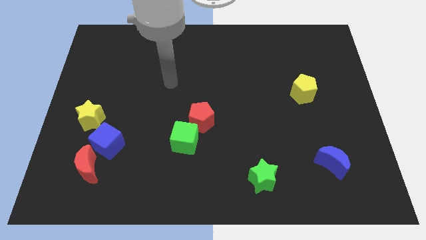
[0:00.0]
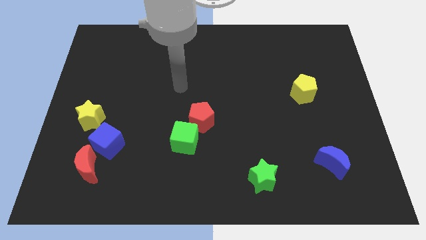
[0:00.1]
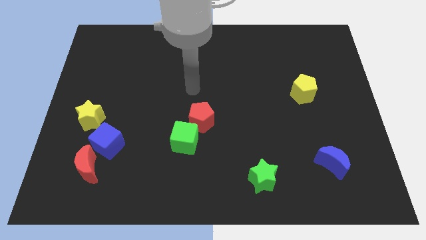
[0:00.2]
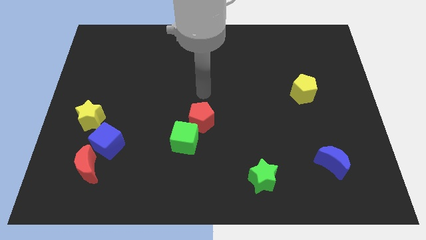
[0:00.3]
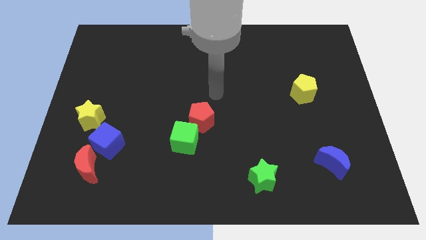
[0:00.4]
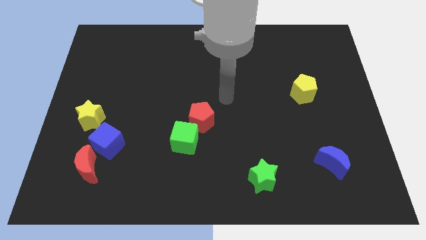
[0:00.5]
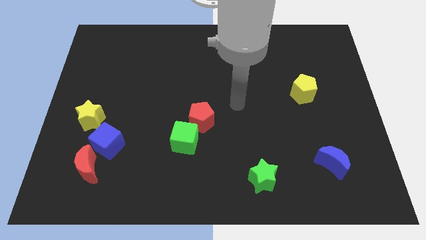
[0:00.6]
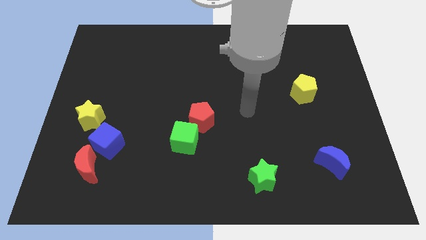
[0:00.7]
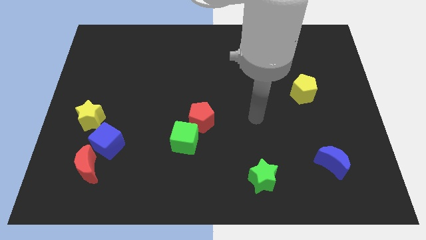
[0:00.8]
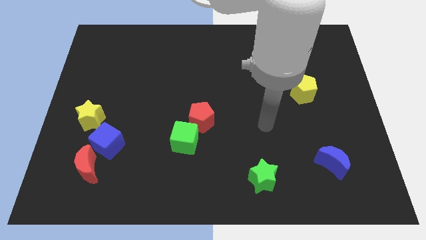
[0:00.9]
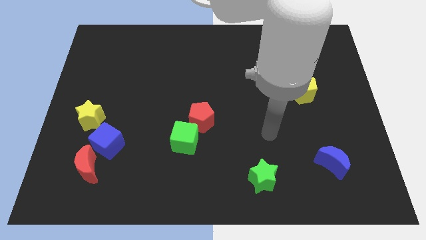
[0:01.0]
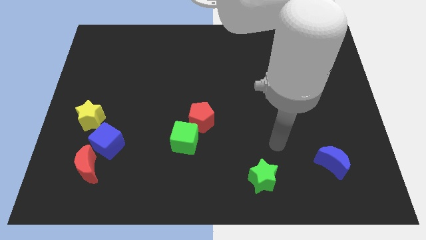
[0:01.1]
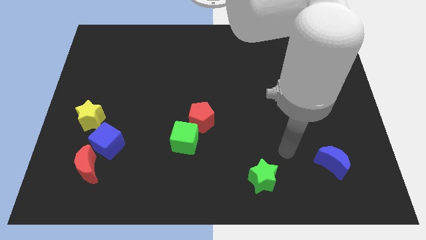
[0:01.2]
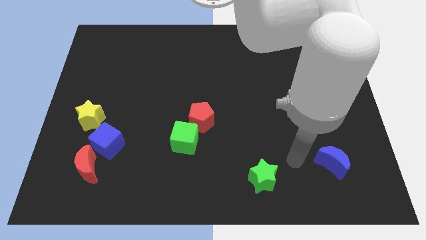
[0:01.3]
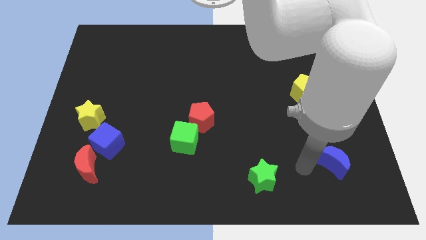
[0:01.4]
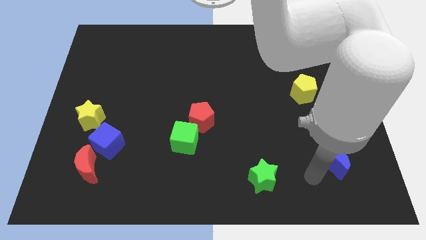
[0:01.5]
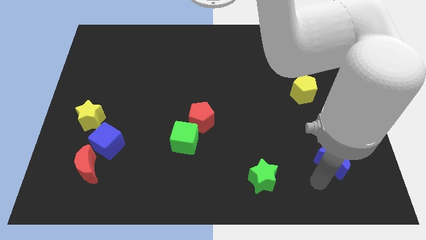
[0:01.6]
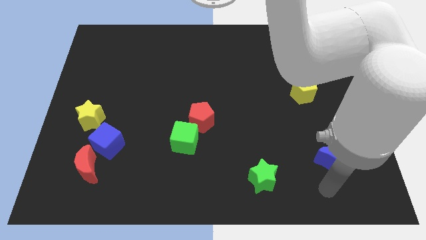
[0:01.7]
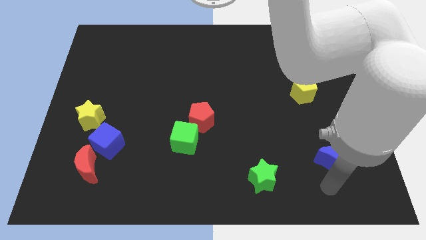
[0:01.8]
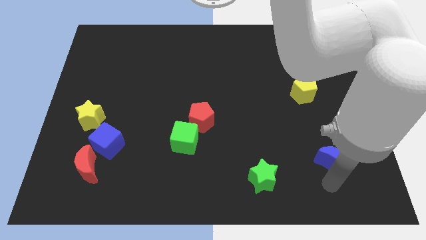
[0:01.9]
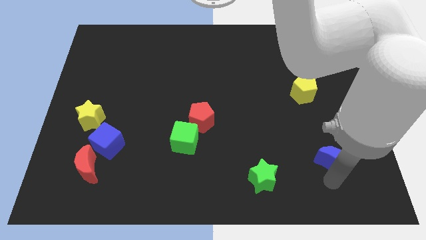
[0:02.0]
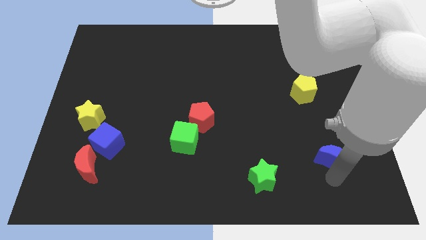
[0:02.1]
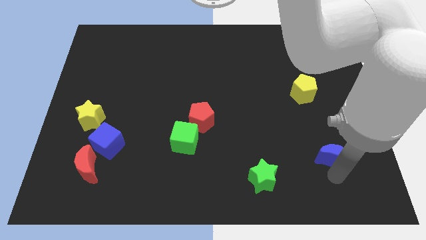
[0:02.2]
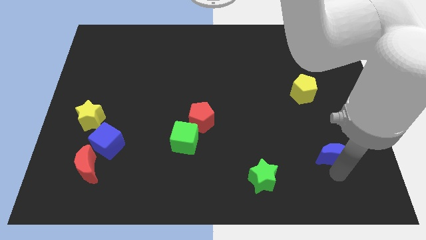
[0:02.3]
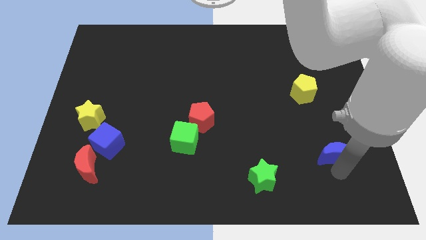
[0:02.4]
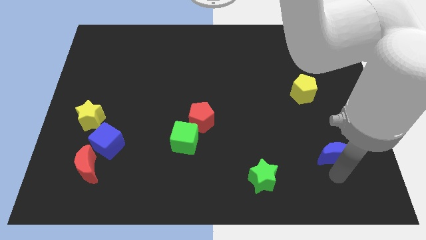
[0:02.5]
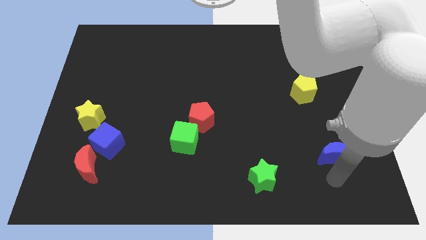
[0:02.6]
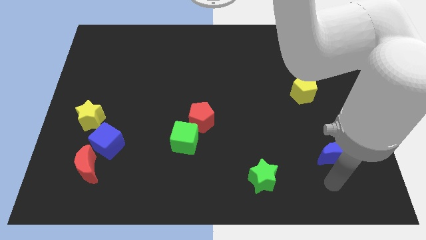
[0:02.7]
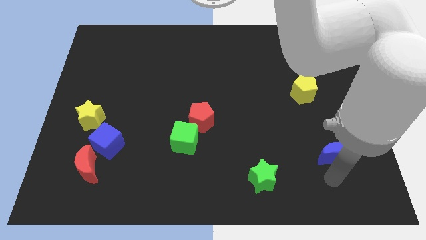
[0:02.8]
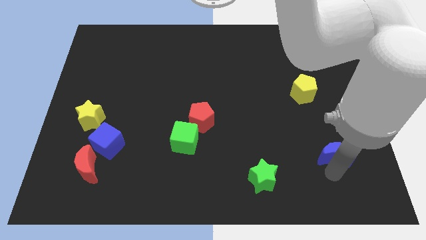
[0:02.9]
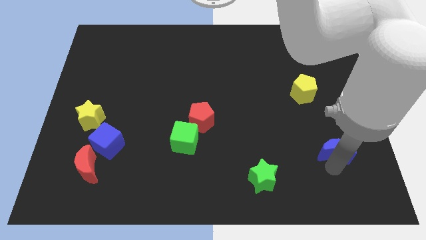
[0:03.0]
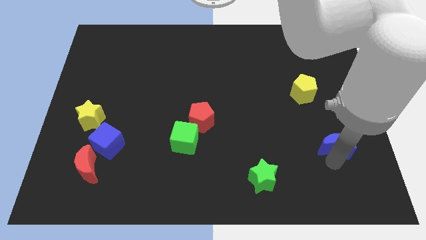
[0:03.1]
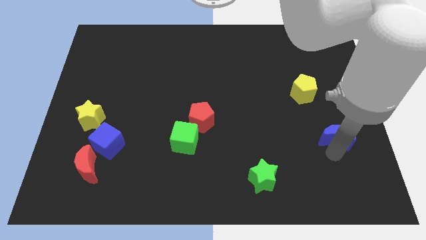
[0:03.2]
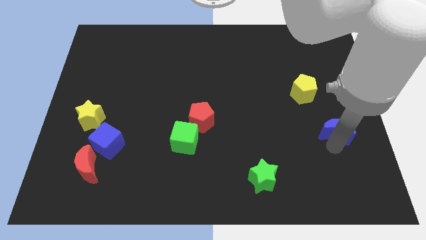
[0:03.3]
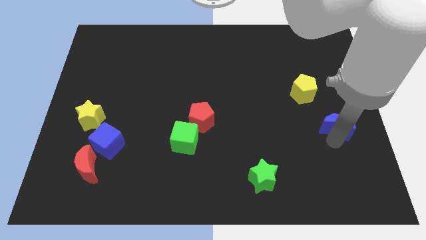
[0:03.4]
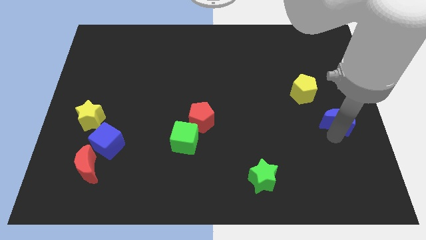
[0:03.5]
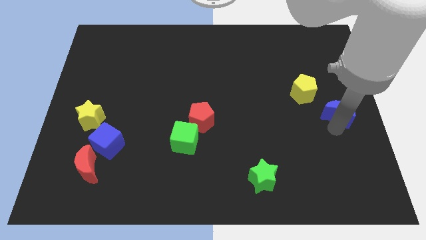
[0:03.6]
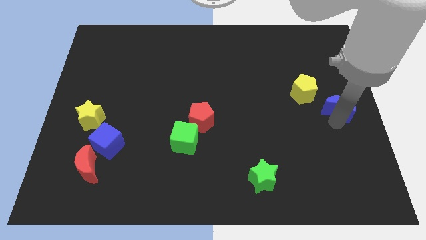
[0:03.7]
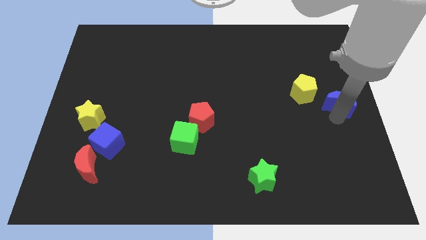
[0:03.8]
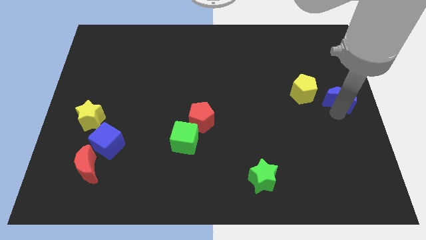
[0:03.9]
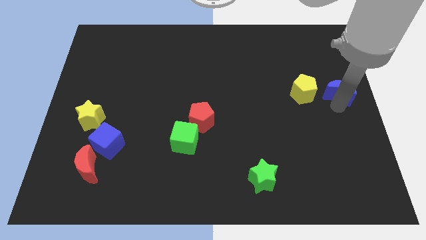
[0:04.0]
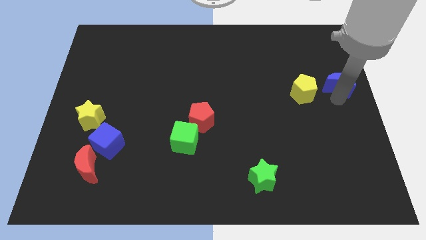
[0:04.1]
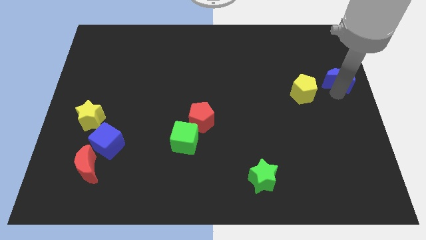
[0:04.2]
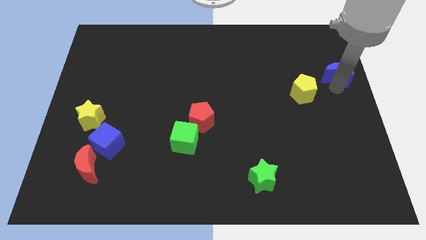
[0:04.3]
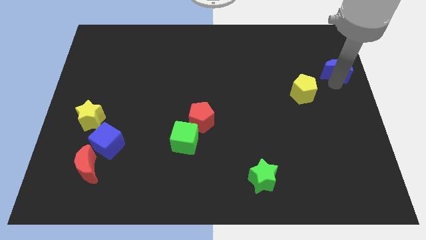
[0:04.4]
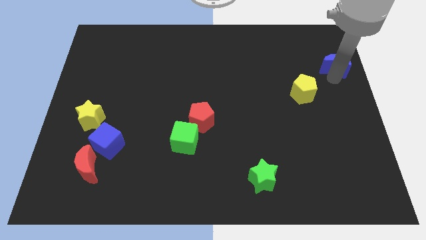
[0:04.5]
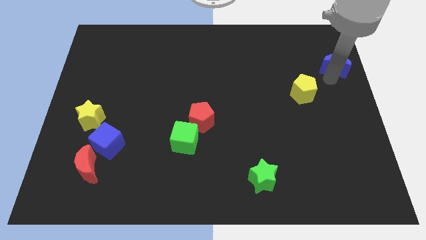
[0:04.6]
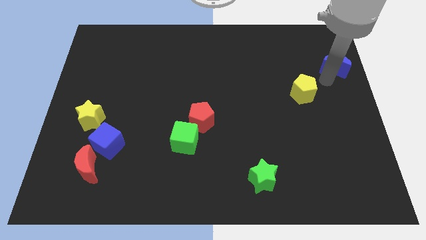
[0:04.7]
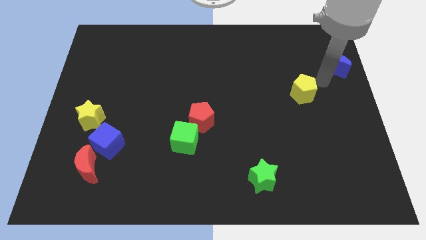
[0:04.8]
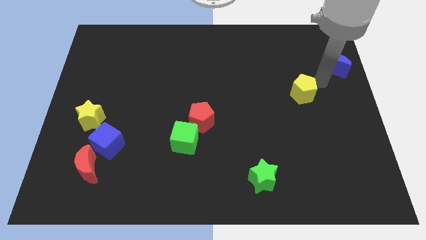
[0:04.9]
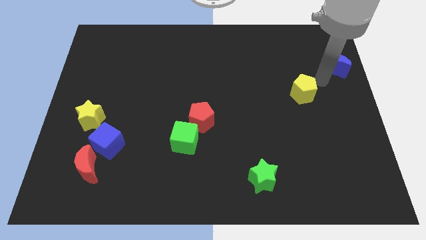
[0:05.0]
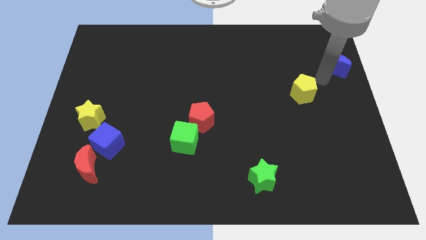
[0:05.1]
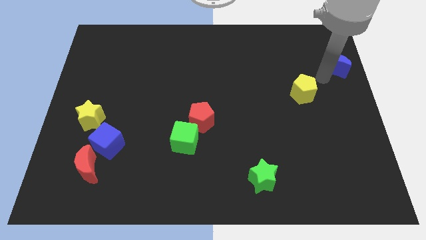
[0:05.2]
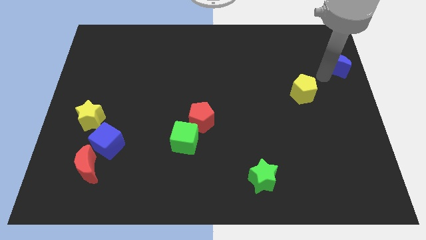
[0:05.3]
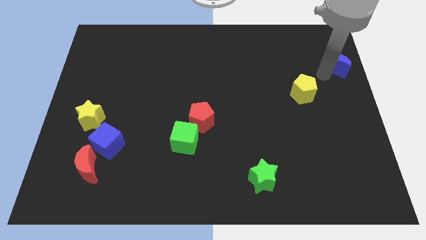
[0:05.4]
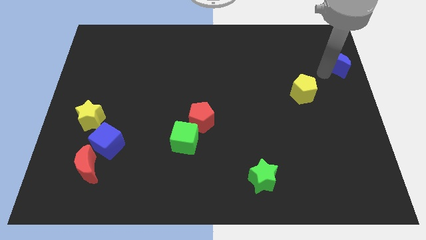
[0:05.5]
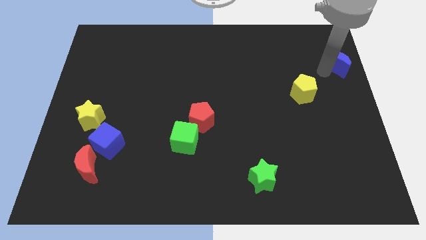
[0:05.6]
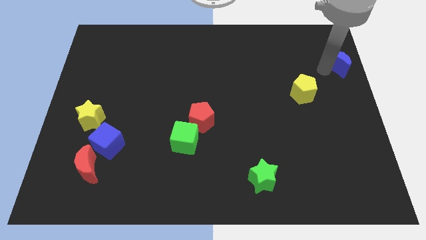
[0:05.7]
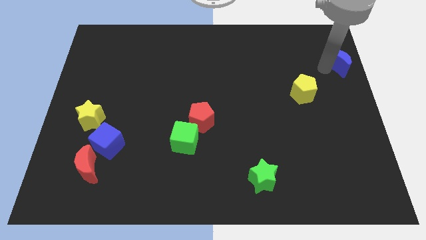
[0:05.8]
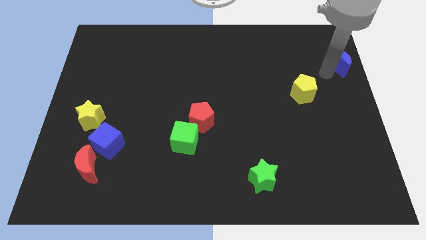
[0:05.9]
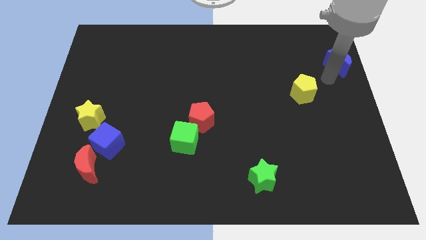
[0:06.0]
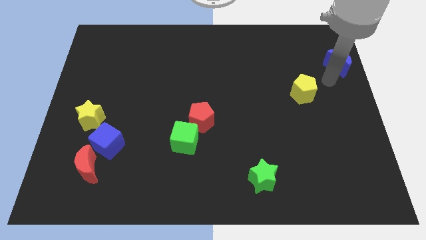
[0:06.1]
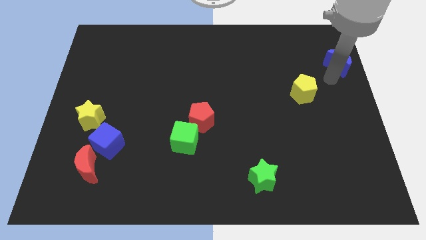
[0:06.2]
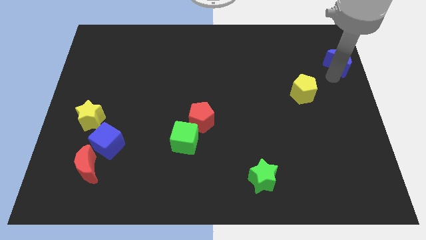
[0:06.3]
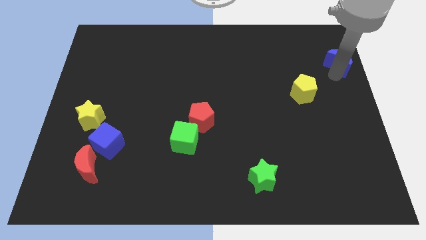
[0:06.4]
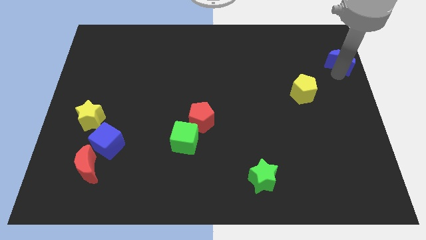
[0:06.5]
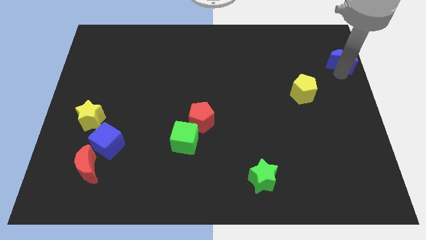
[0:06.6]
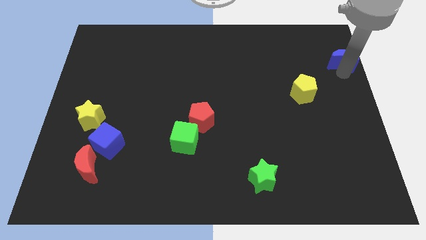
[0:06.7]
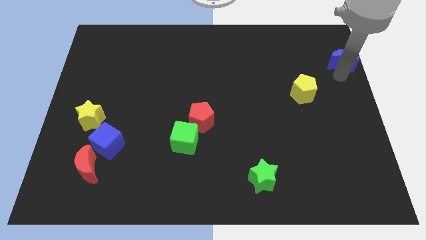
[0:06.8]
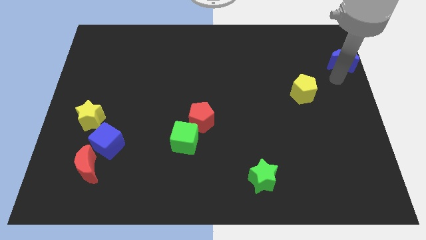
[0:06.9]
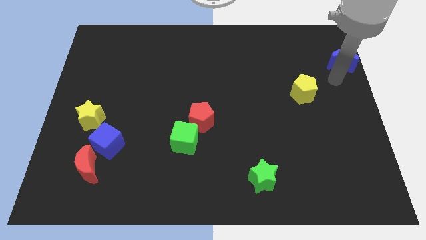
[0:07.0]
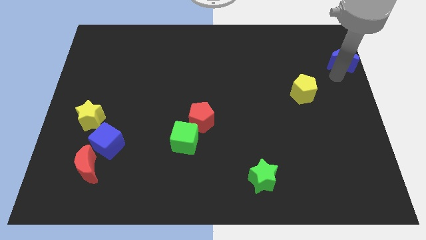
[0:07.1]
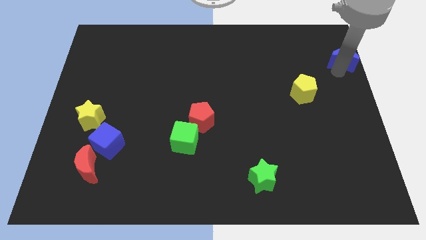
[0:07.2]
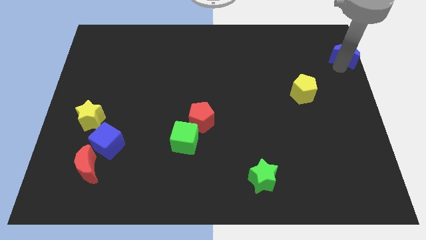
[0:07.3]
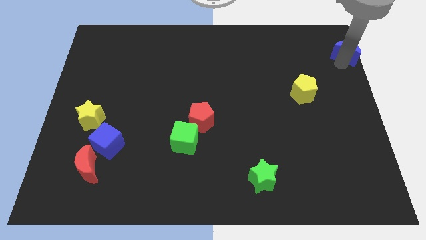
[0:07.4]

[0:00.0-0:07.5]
move the blue moon to the top right
